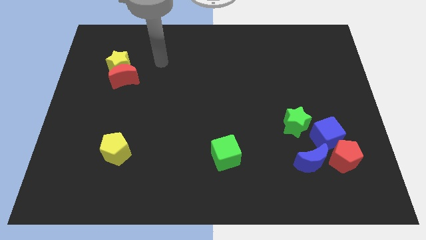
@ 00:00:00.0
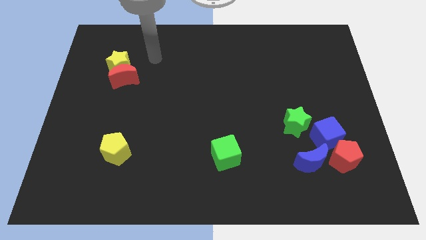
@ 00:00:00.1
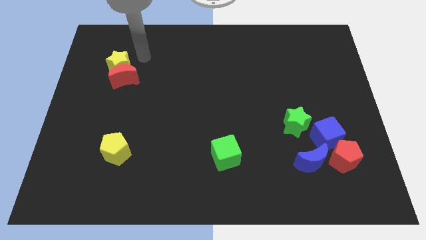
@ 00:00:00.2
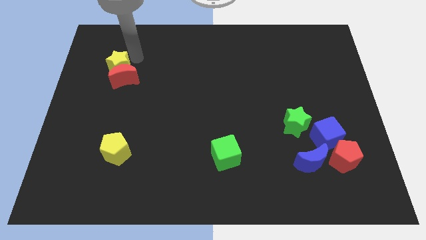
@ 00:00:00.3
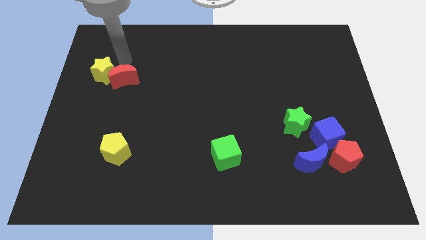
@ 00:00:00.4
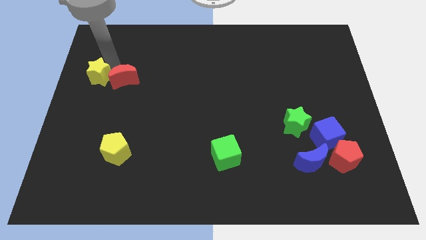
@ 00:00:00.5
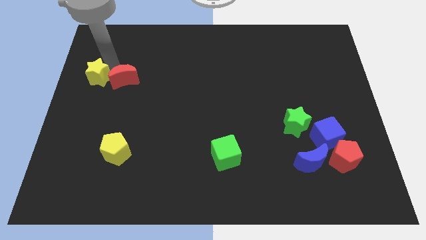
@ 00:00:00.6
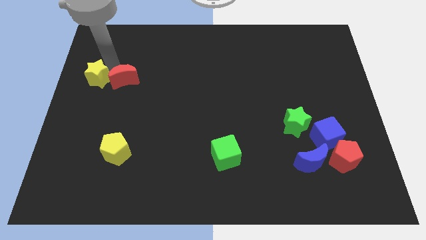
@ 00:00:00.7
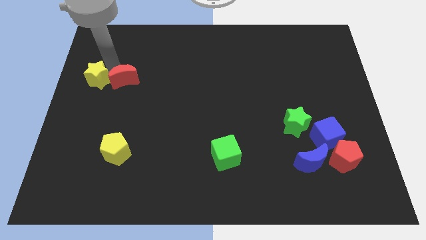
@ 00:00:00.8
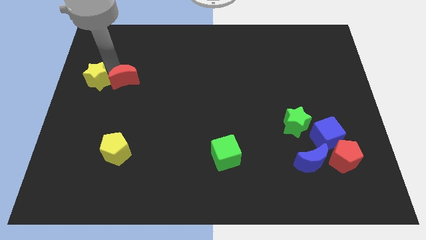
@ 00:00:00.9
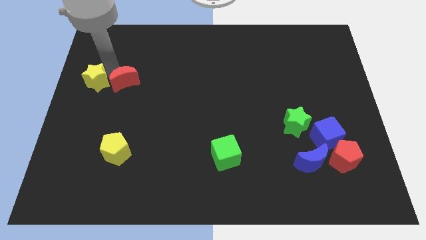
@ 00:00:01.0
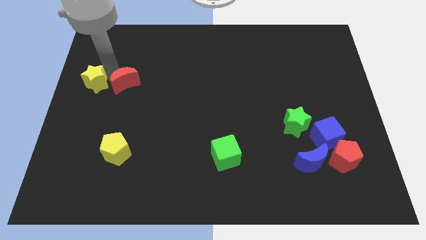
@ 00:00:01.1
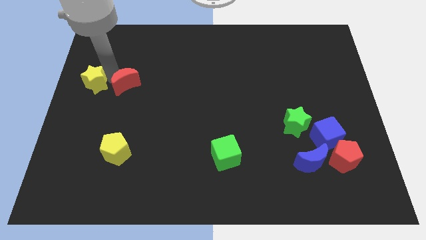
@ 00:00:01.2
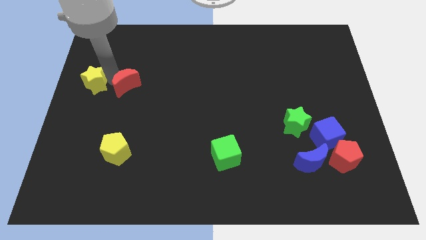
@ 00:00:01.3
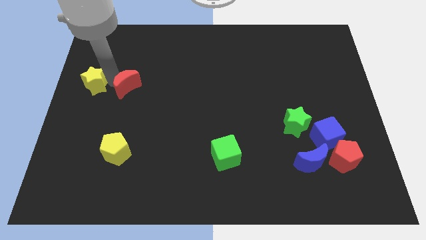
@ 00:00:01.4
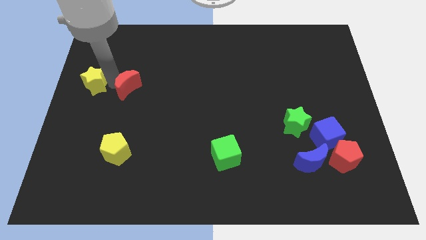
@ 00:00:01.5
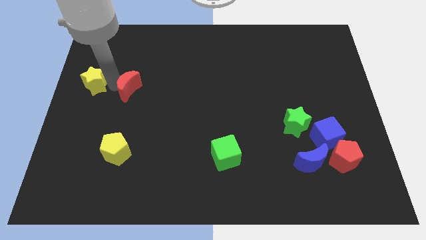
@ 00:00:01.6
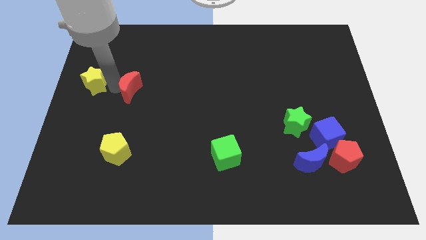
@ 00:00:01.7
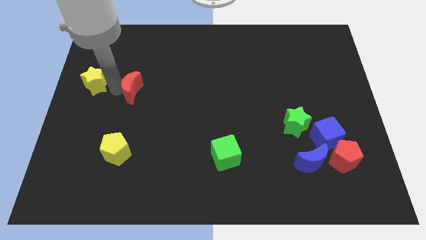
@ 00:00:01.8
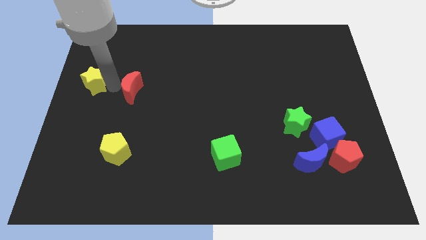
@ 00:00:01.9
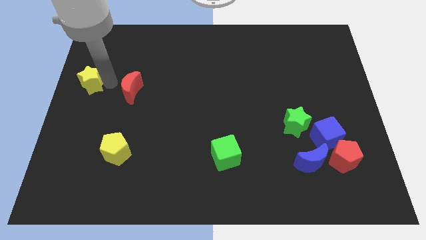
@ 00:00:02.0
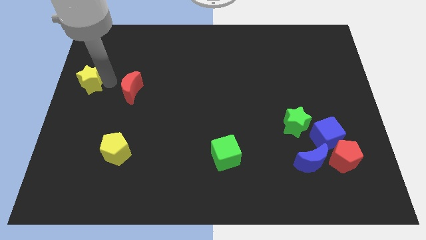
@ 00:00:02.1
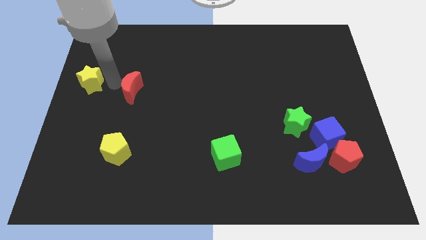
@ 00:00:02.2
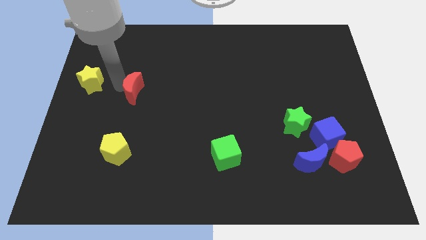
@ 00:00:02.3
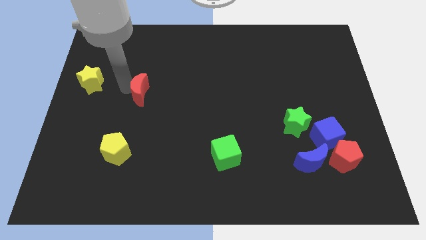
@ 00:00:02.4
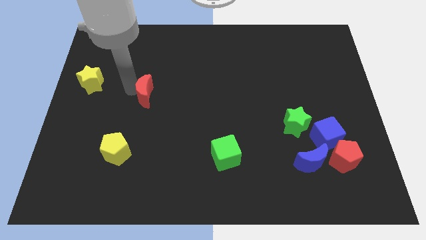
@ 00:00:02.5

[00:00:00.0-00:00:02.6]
move the red moon a bit down and to the right diagonally

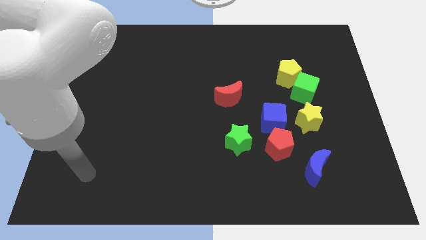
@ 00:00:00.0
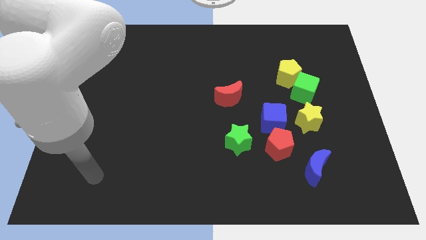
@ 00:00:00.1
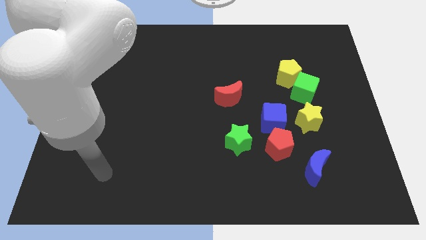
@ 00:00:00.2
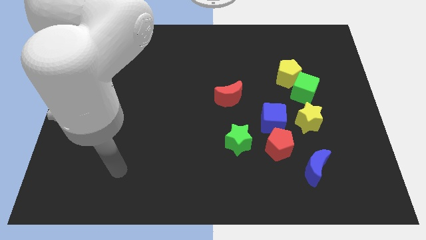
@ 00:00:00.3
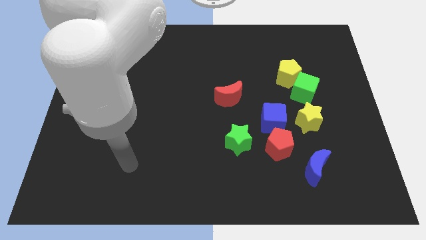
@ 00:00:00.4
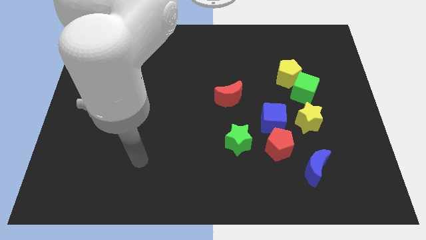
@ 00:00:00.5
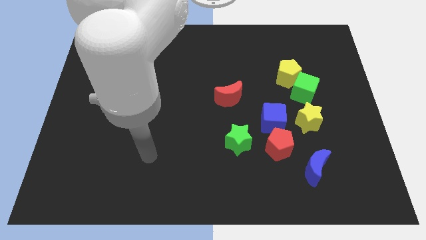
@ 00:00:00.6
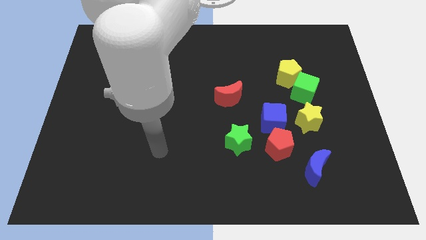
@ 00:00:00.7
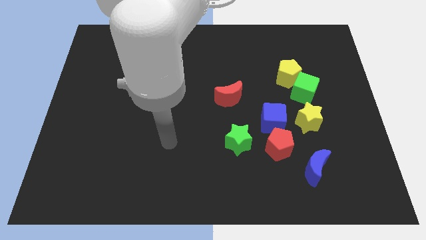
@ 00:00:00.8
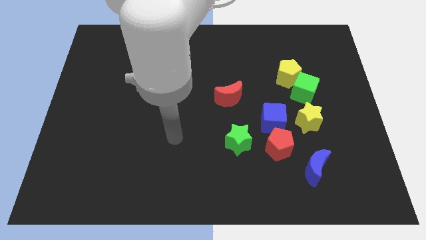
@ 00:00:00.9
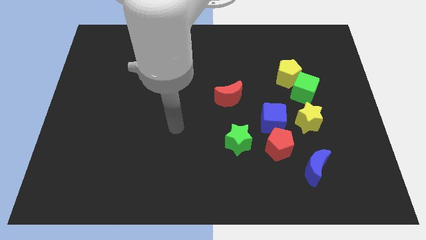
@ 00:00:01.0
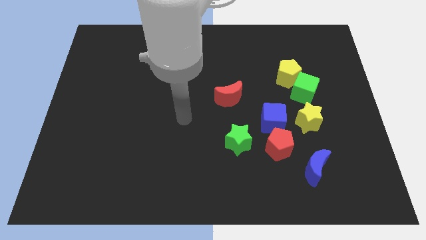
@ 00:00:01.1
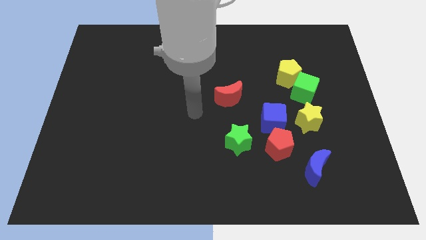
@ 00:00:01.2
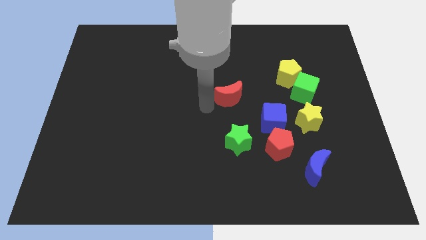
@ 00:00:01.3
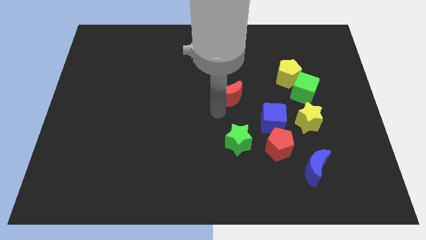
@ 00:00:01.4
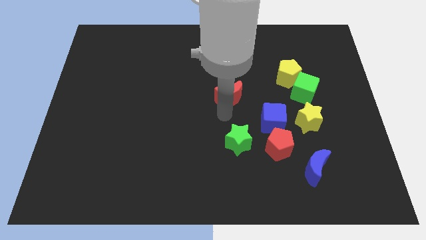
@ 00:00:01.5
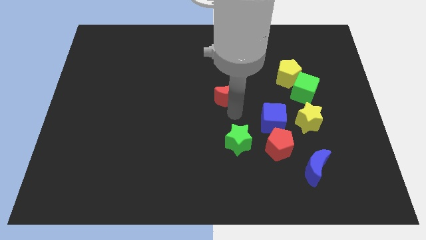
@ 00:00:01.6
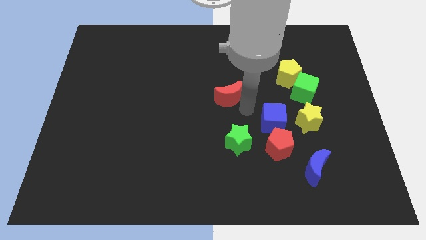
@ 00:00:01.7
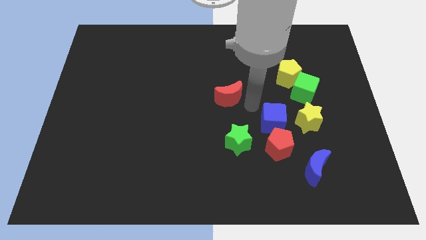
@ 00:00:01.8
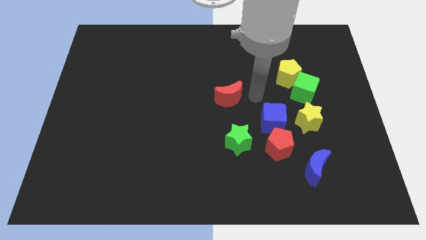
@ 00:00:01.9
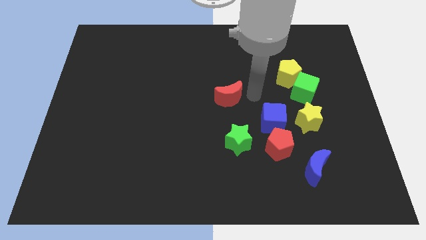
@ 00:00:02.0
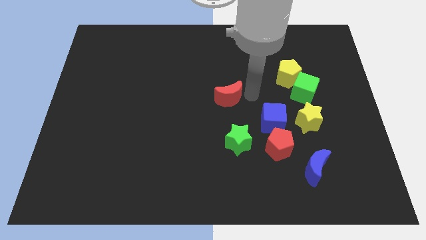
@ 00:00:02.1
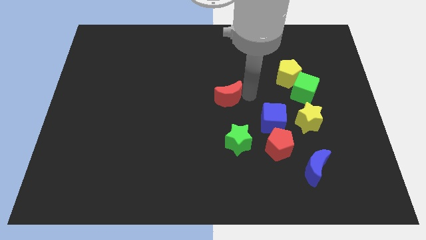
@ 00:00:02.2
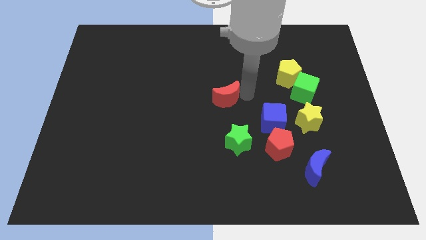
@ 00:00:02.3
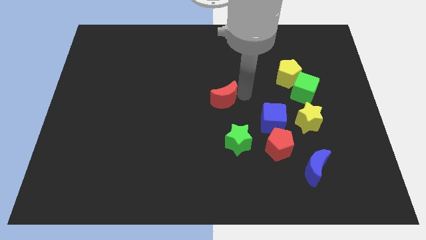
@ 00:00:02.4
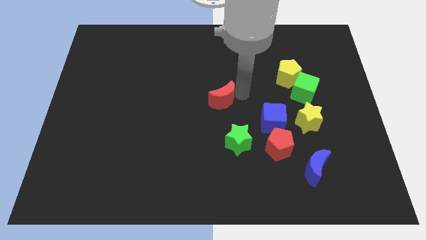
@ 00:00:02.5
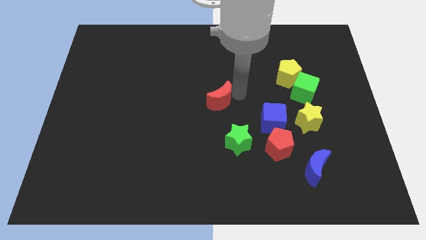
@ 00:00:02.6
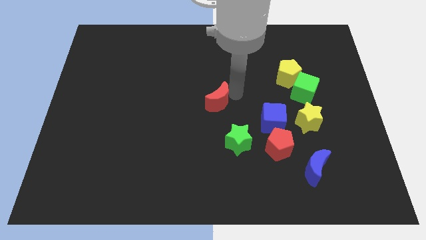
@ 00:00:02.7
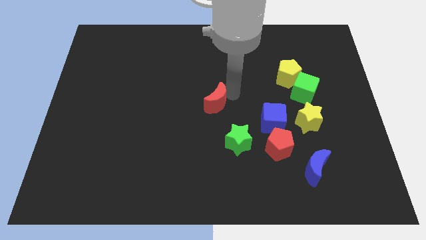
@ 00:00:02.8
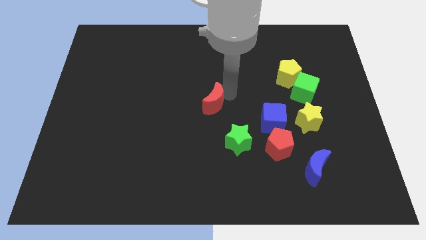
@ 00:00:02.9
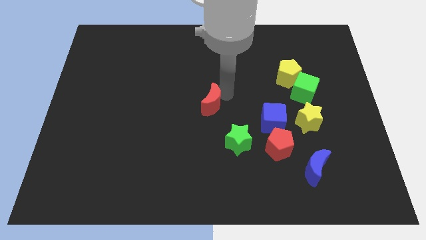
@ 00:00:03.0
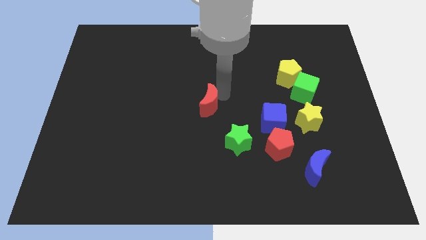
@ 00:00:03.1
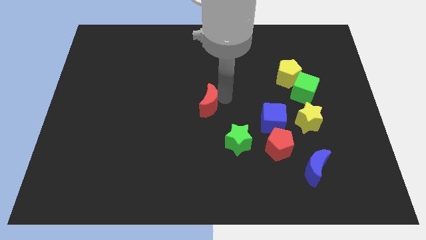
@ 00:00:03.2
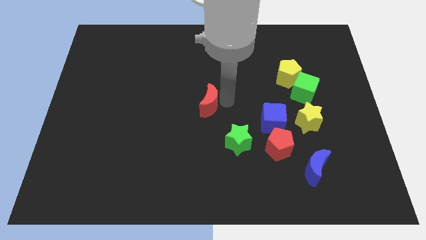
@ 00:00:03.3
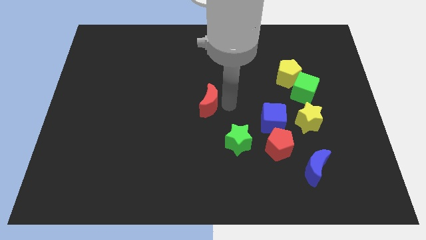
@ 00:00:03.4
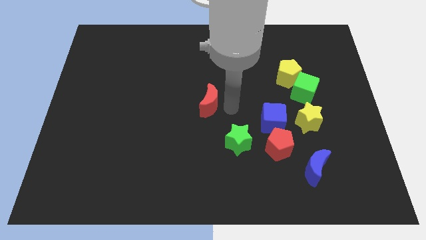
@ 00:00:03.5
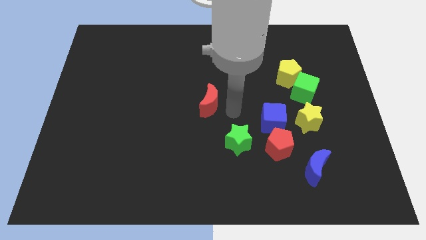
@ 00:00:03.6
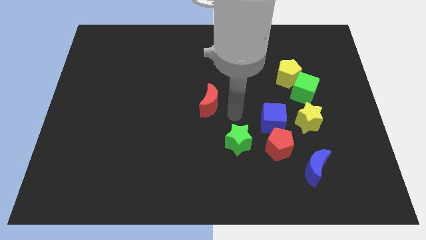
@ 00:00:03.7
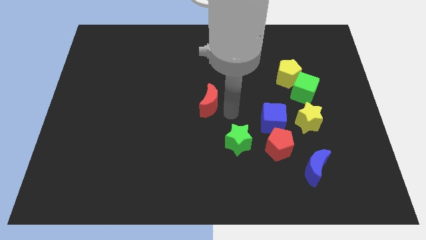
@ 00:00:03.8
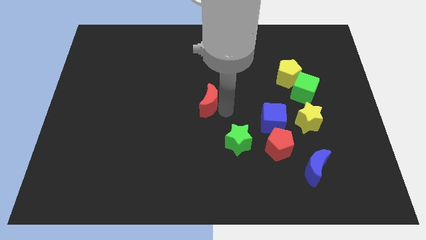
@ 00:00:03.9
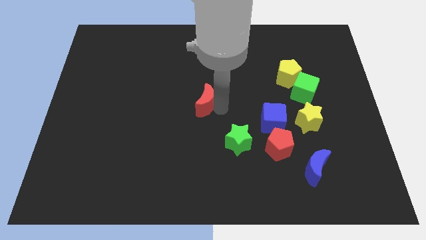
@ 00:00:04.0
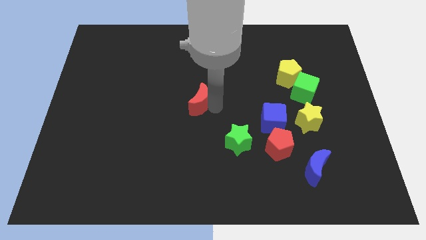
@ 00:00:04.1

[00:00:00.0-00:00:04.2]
slightly slide the red moon left

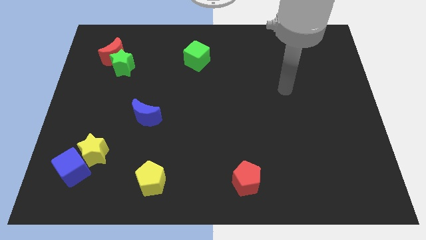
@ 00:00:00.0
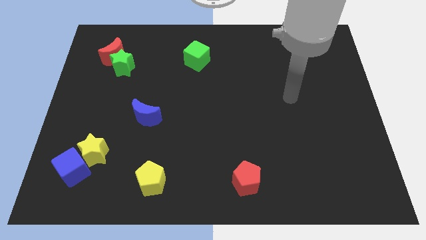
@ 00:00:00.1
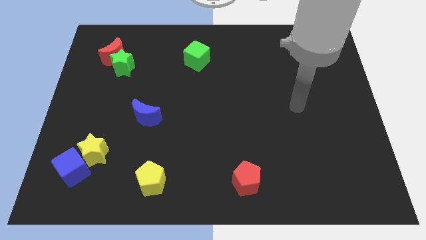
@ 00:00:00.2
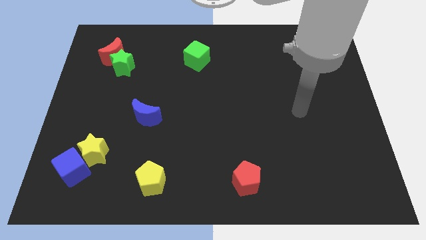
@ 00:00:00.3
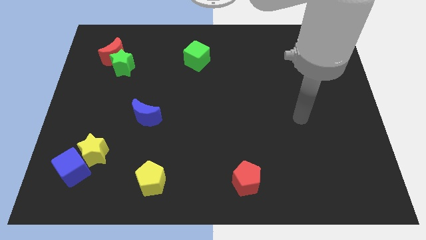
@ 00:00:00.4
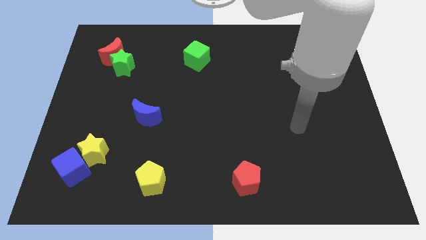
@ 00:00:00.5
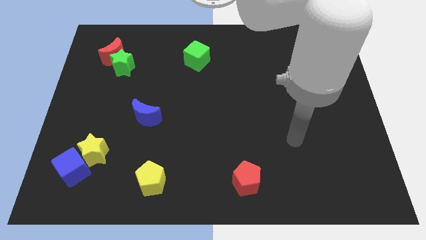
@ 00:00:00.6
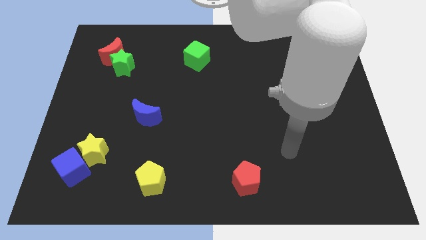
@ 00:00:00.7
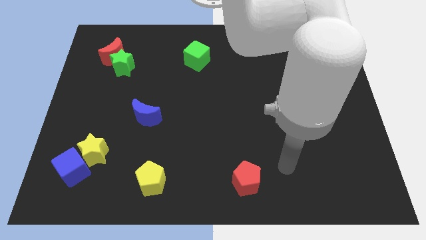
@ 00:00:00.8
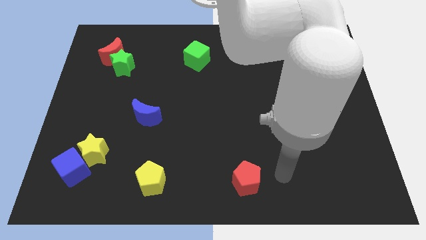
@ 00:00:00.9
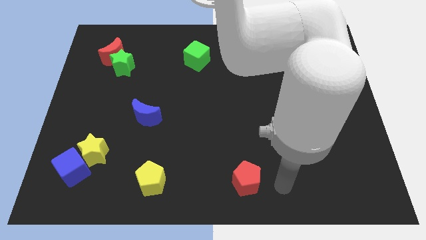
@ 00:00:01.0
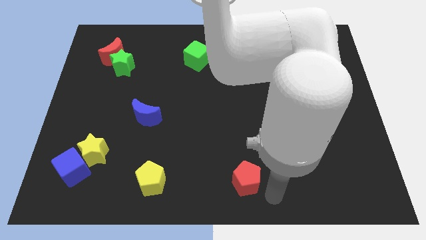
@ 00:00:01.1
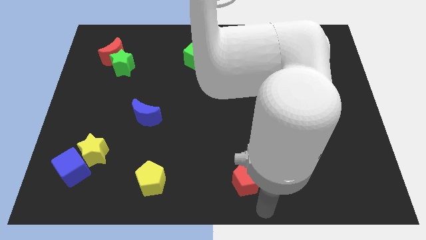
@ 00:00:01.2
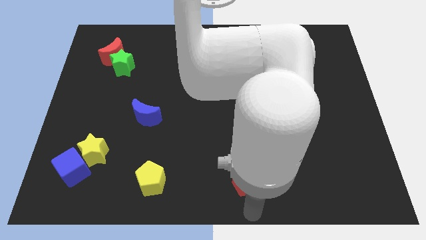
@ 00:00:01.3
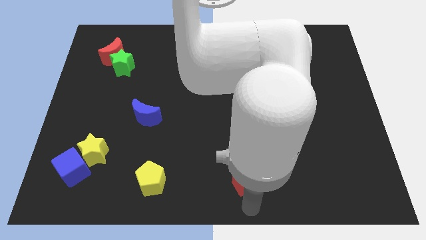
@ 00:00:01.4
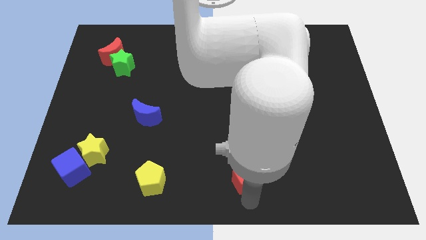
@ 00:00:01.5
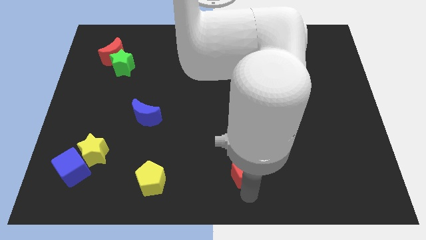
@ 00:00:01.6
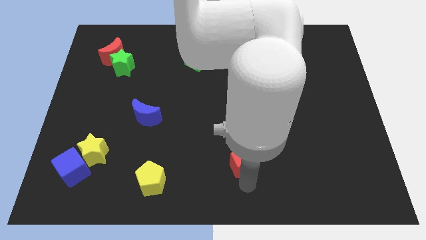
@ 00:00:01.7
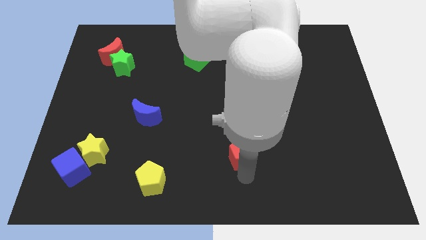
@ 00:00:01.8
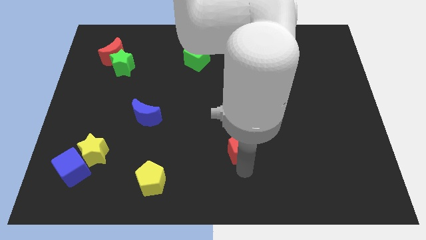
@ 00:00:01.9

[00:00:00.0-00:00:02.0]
slide the red pentagon slightly up
